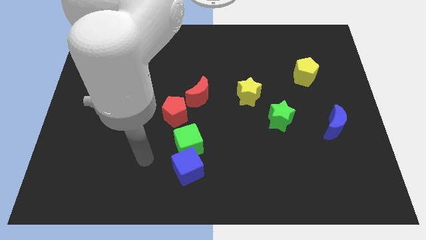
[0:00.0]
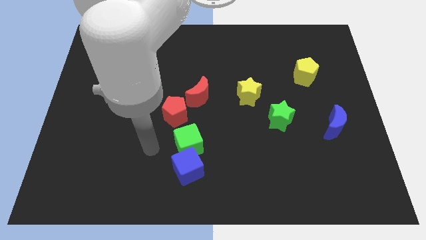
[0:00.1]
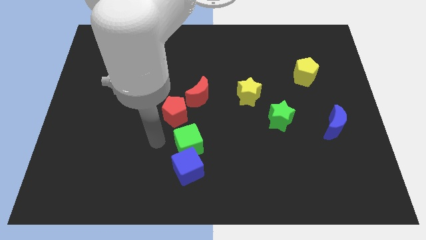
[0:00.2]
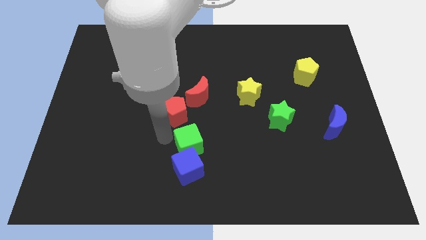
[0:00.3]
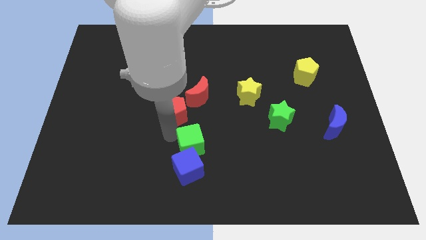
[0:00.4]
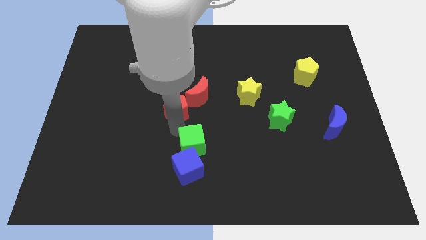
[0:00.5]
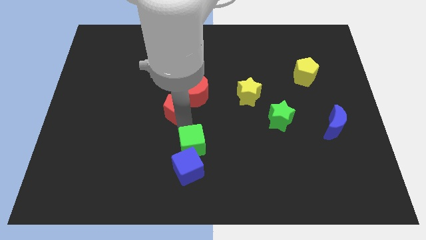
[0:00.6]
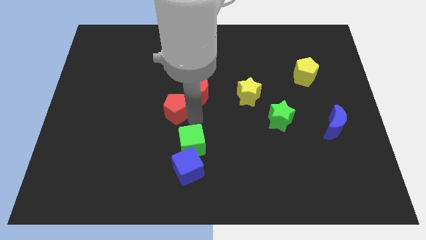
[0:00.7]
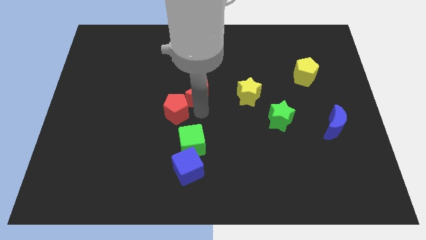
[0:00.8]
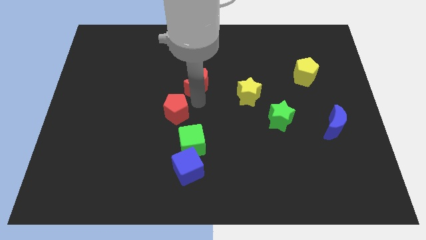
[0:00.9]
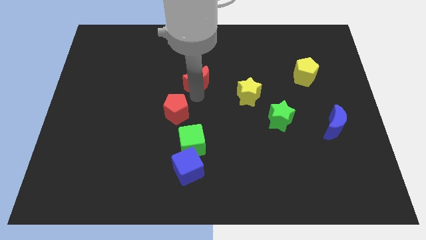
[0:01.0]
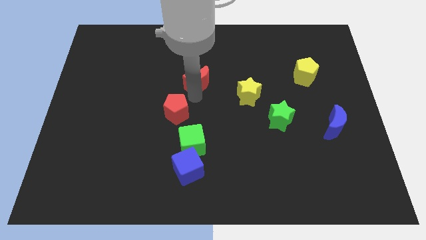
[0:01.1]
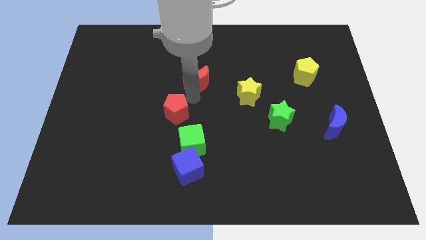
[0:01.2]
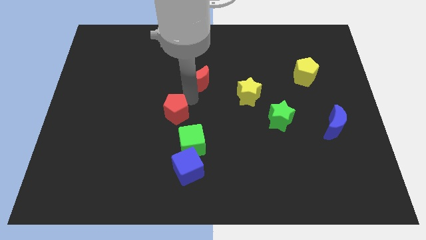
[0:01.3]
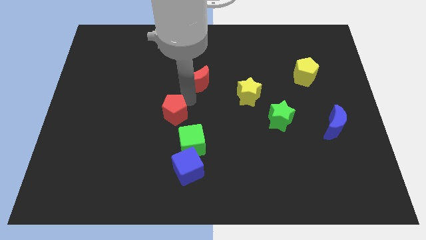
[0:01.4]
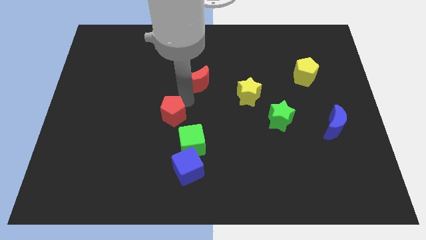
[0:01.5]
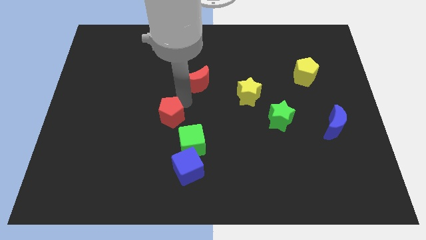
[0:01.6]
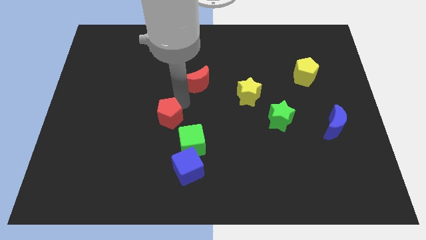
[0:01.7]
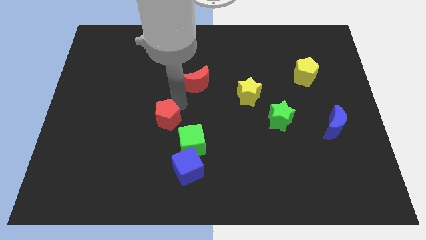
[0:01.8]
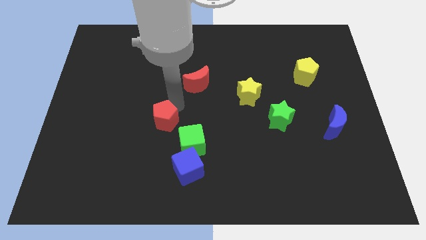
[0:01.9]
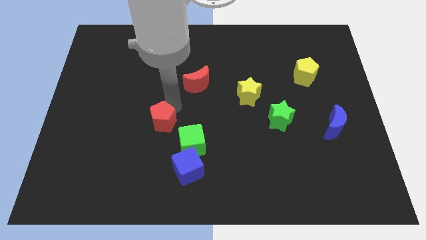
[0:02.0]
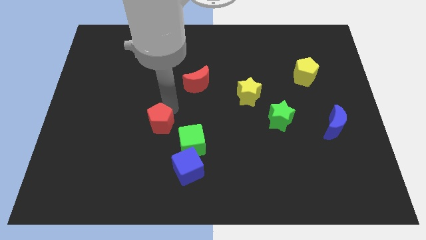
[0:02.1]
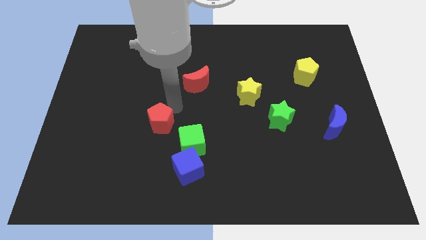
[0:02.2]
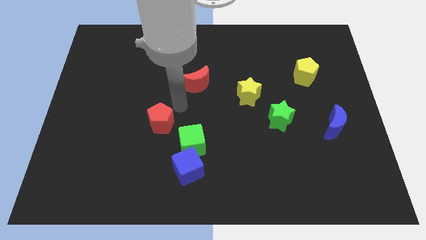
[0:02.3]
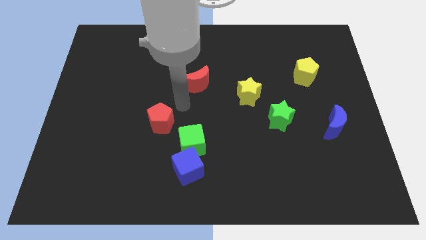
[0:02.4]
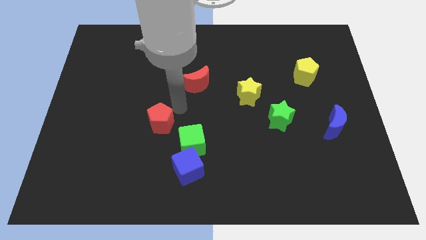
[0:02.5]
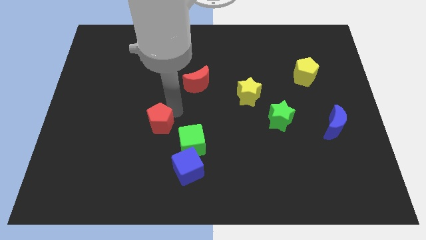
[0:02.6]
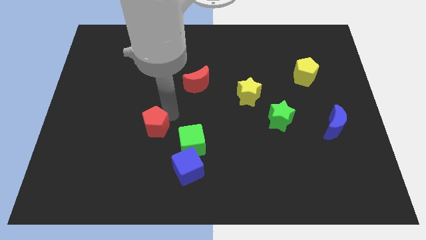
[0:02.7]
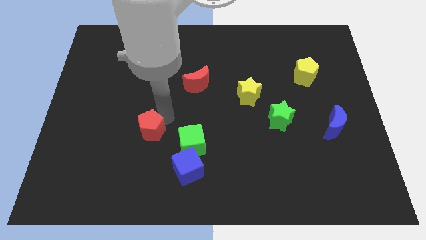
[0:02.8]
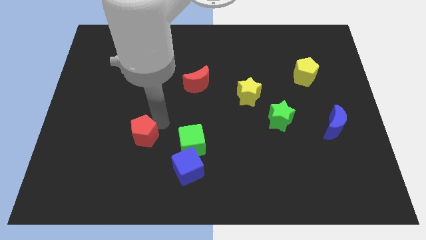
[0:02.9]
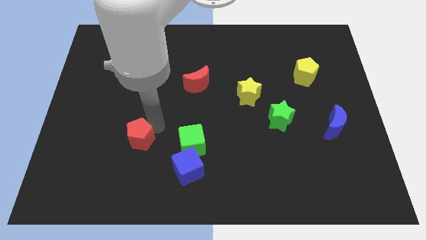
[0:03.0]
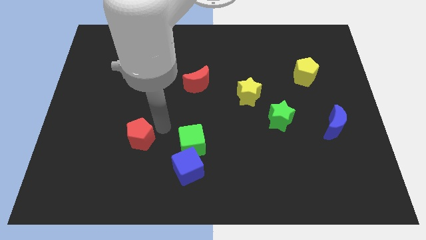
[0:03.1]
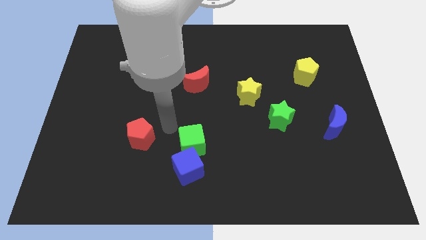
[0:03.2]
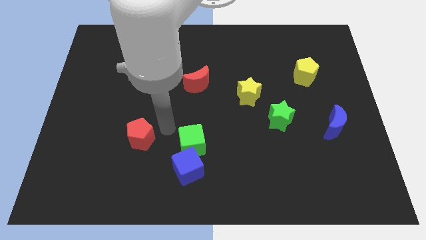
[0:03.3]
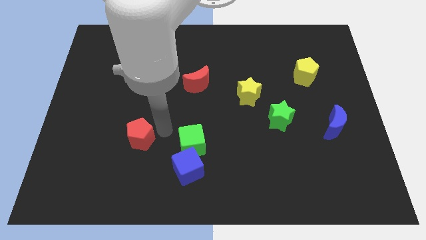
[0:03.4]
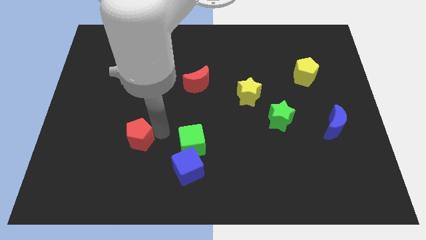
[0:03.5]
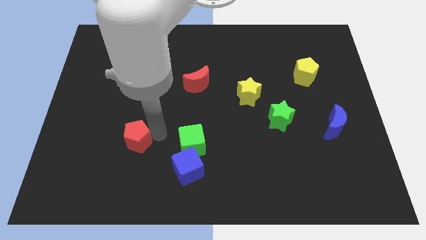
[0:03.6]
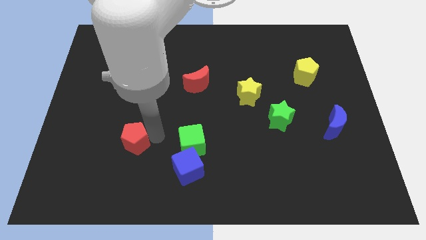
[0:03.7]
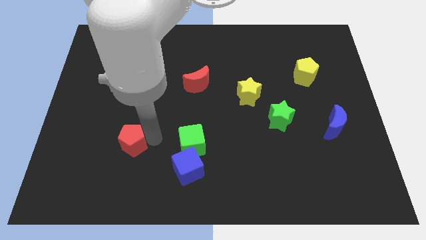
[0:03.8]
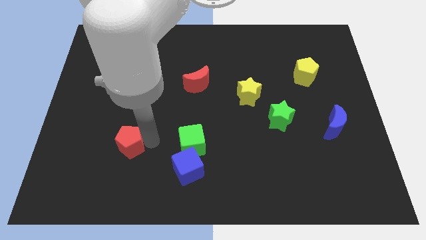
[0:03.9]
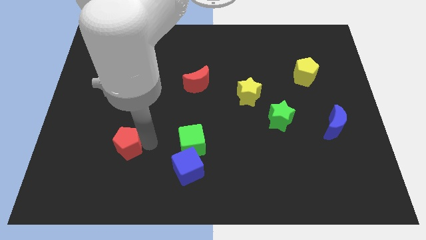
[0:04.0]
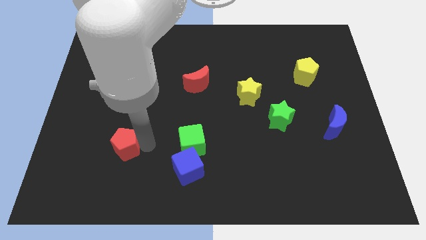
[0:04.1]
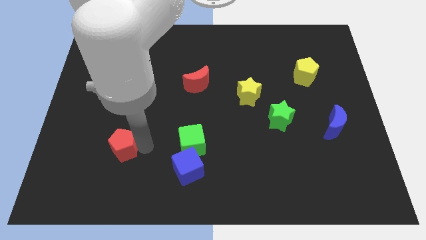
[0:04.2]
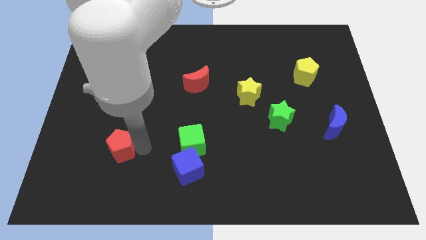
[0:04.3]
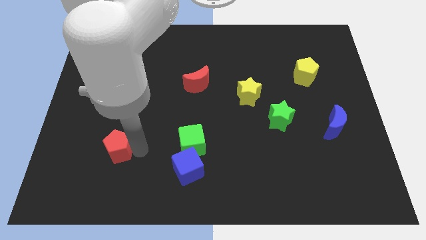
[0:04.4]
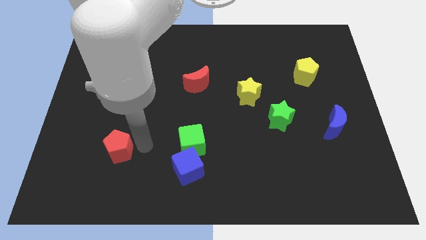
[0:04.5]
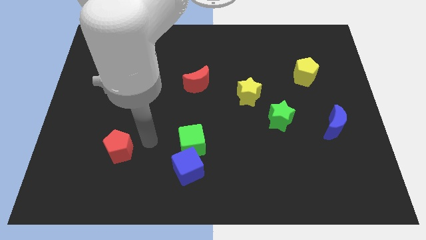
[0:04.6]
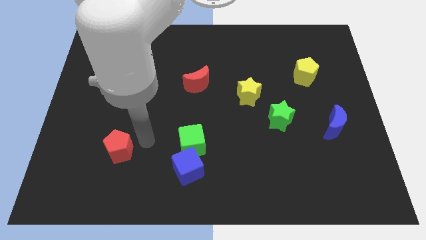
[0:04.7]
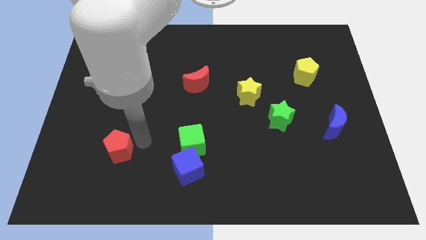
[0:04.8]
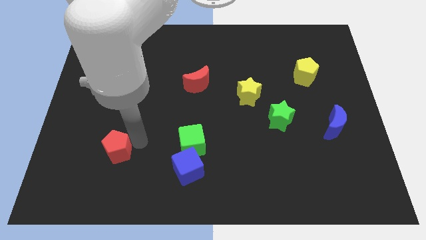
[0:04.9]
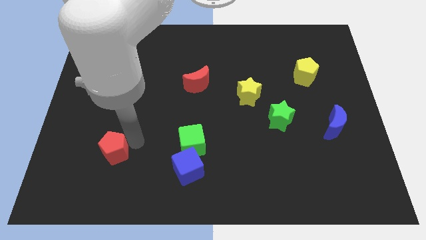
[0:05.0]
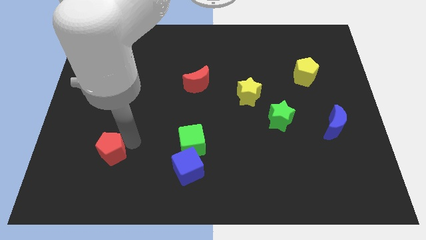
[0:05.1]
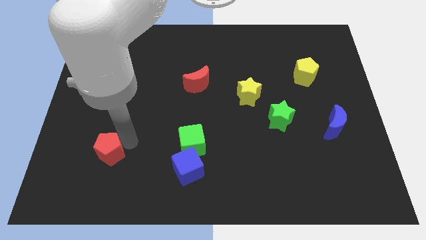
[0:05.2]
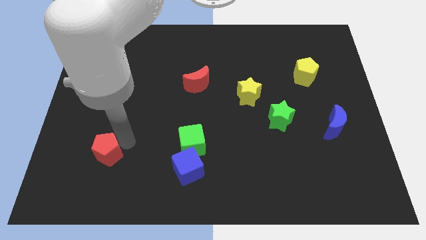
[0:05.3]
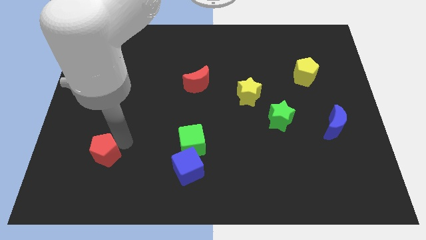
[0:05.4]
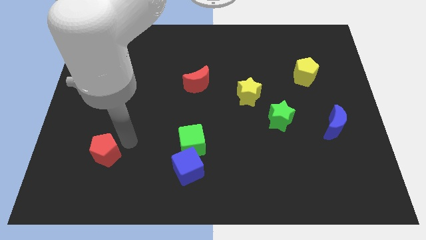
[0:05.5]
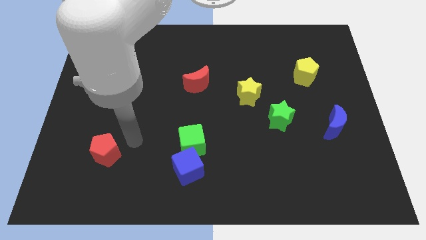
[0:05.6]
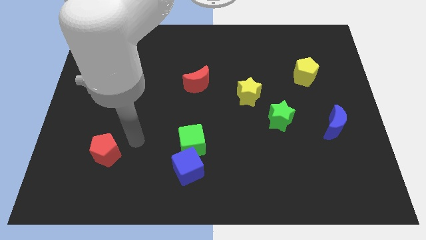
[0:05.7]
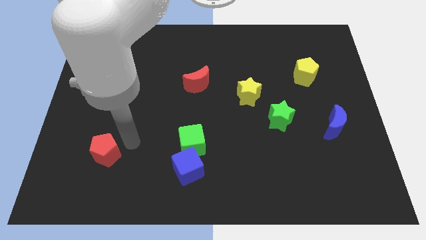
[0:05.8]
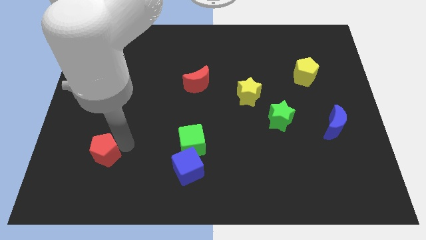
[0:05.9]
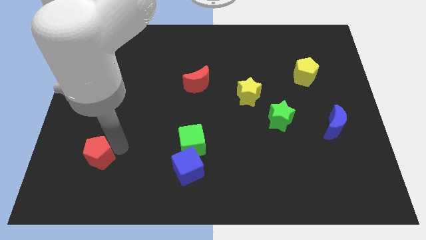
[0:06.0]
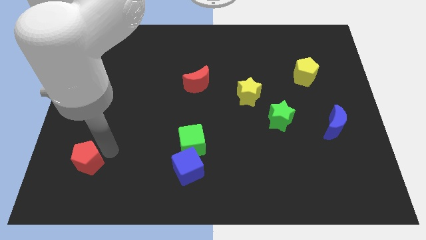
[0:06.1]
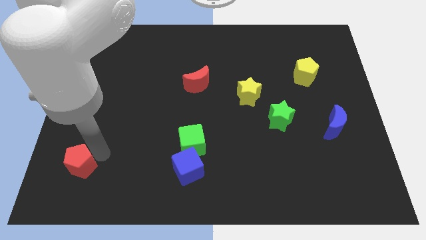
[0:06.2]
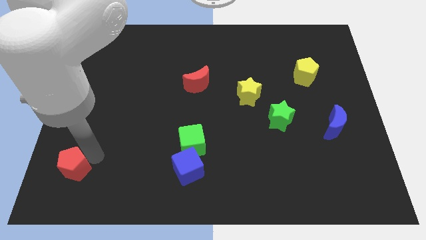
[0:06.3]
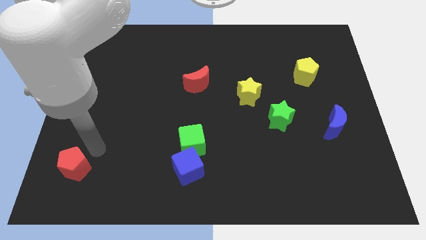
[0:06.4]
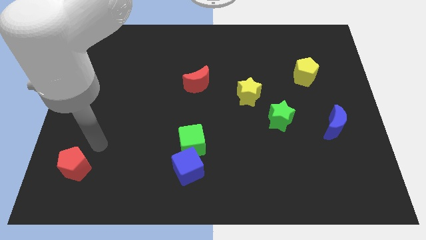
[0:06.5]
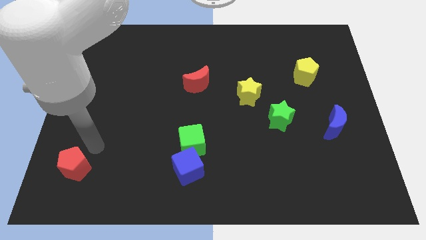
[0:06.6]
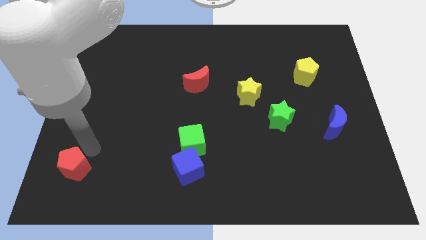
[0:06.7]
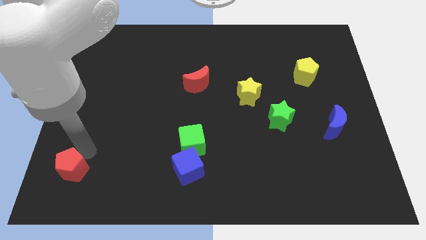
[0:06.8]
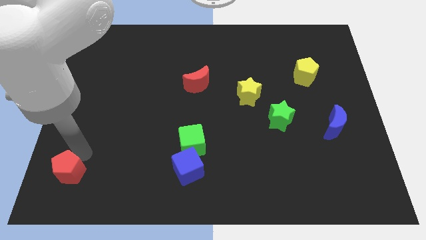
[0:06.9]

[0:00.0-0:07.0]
push the red pentagon to the bottom left of the board
